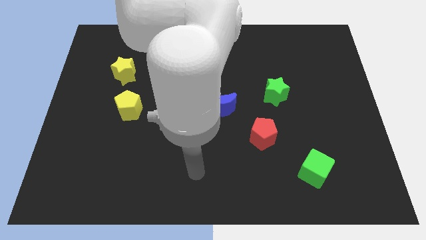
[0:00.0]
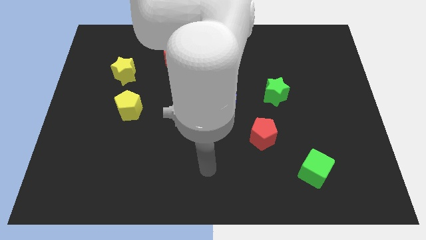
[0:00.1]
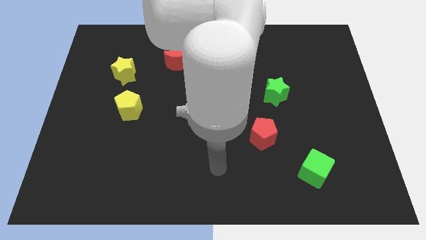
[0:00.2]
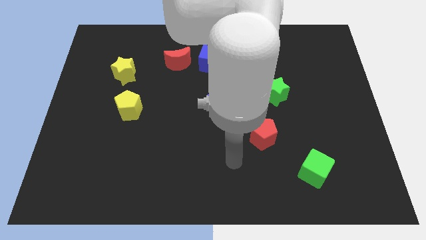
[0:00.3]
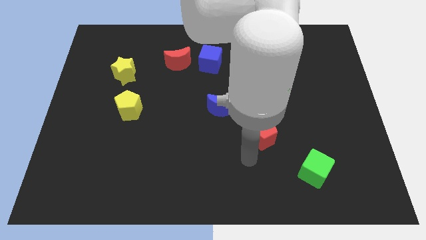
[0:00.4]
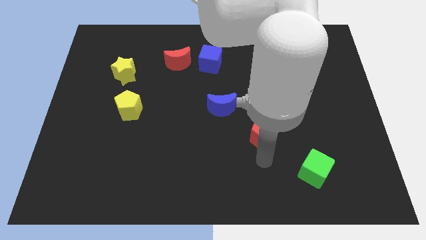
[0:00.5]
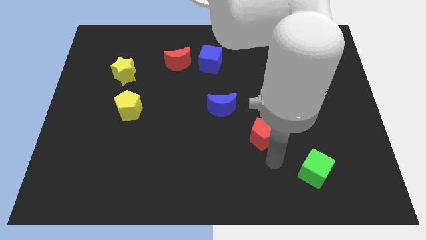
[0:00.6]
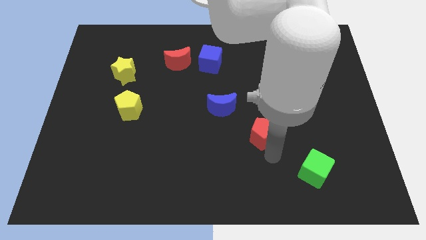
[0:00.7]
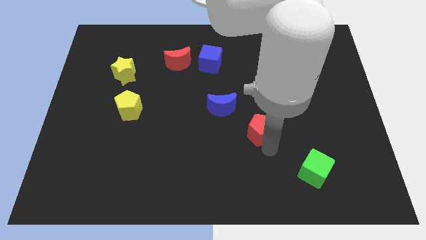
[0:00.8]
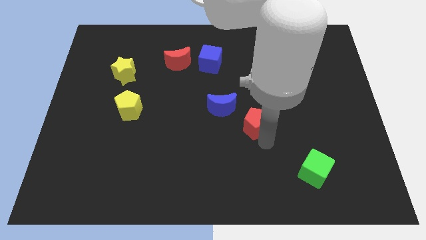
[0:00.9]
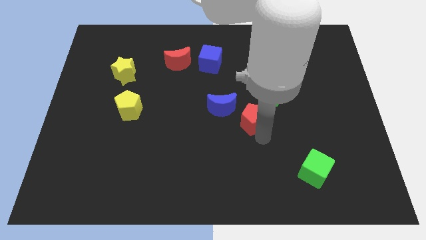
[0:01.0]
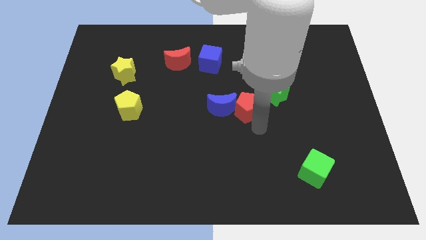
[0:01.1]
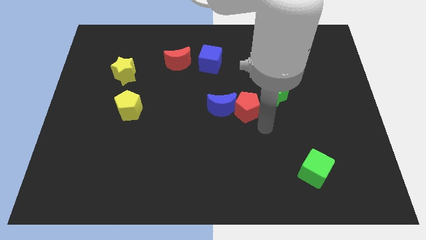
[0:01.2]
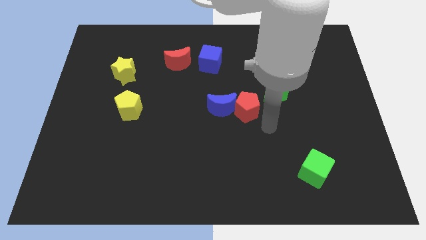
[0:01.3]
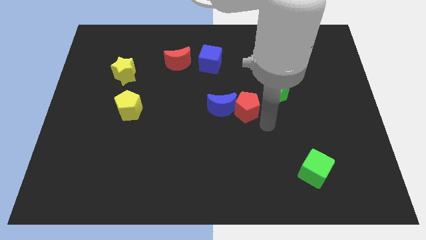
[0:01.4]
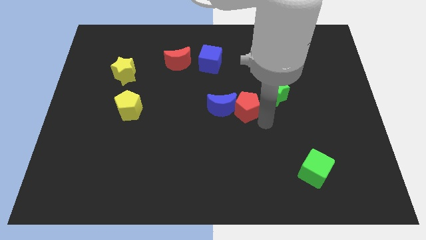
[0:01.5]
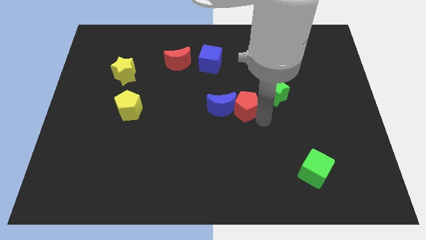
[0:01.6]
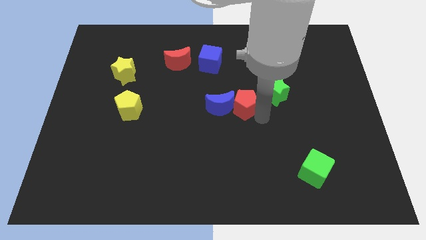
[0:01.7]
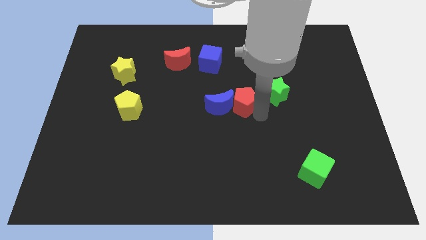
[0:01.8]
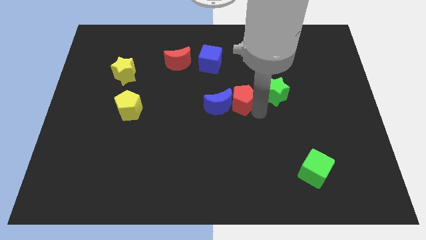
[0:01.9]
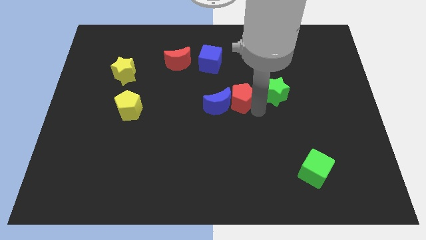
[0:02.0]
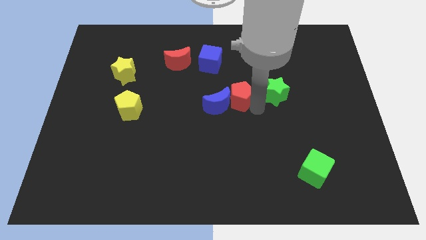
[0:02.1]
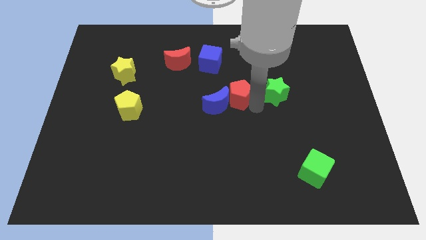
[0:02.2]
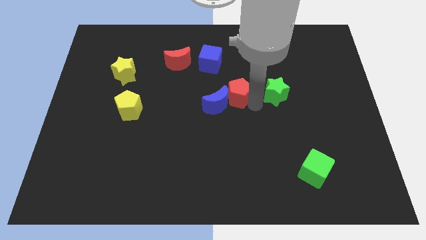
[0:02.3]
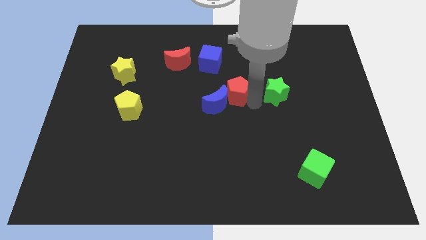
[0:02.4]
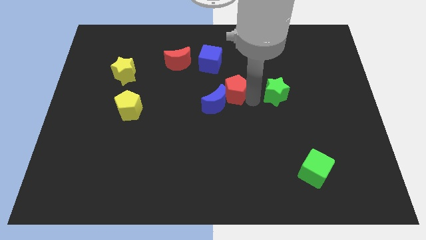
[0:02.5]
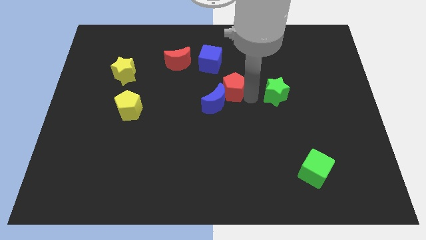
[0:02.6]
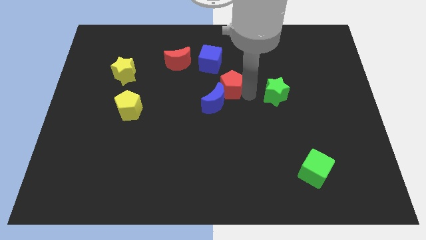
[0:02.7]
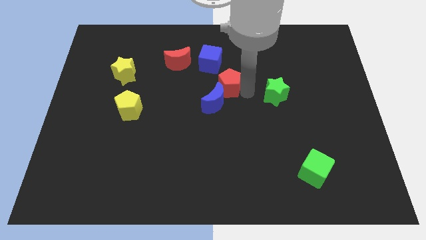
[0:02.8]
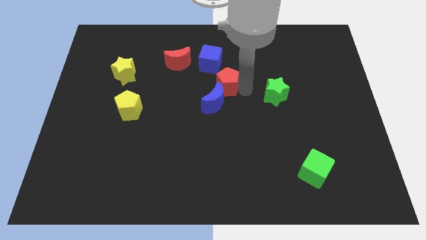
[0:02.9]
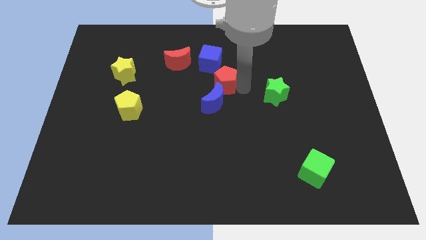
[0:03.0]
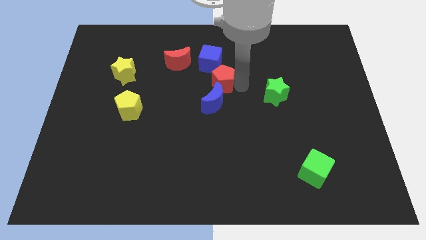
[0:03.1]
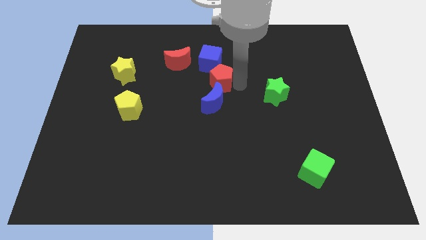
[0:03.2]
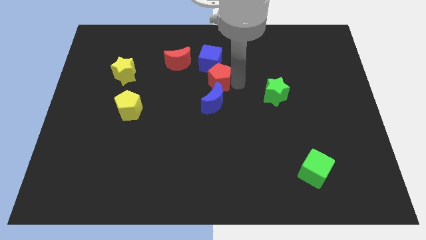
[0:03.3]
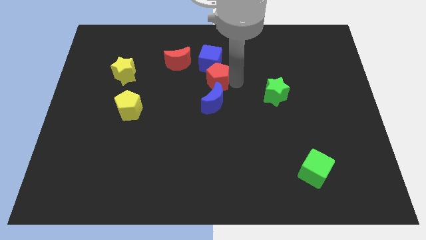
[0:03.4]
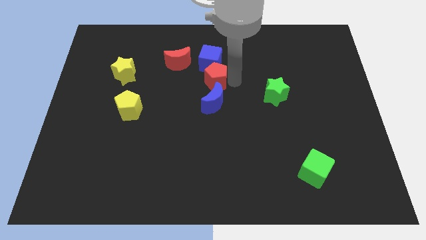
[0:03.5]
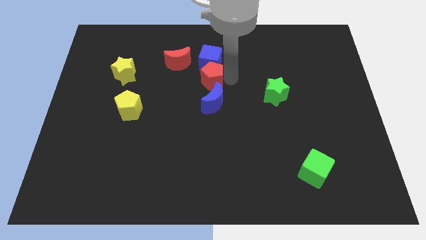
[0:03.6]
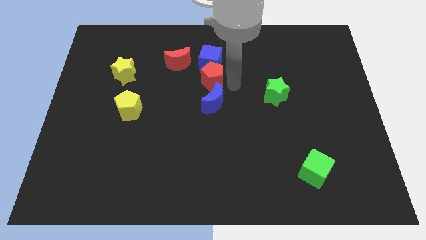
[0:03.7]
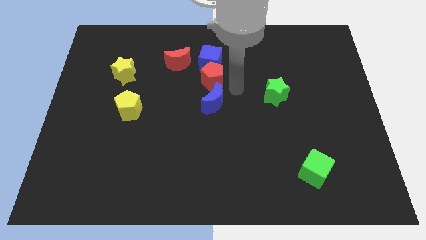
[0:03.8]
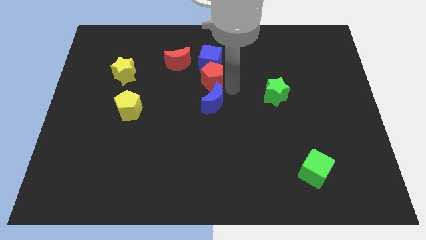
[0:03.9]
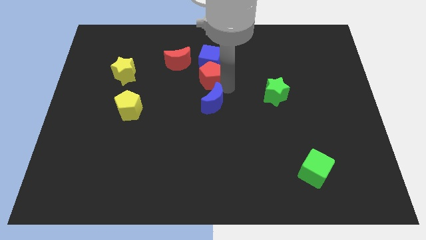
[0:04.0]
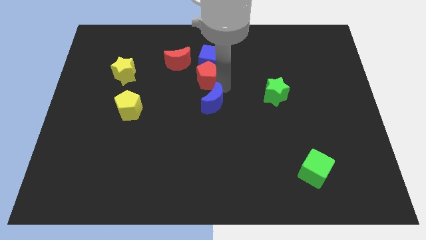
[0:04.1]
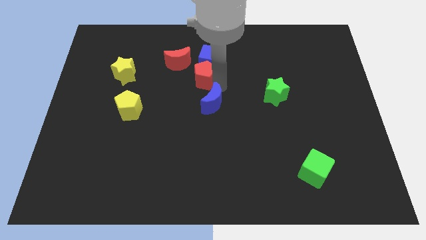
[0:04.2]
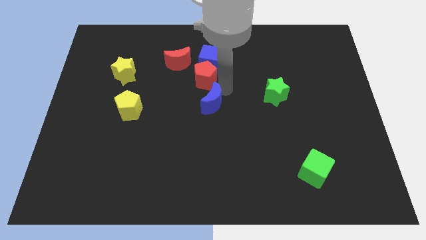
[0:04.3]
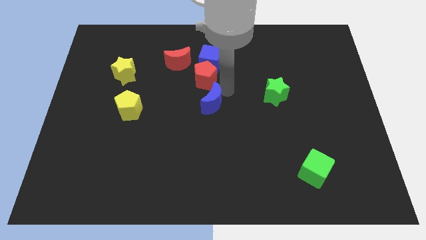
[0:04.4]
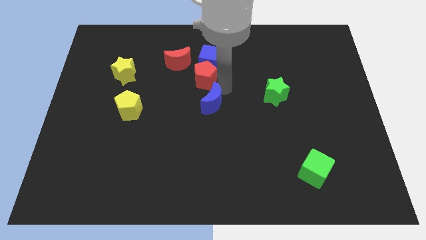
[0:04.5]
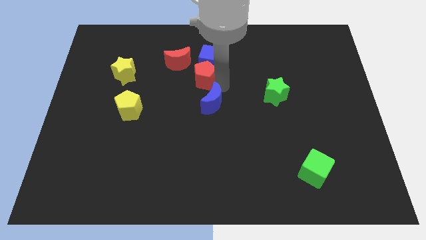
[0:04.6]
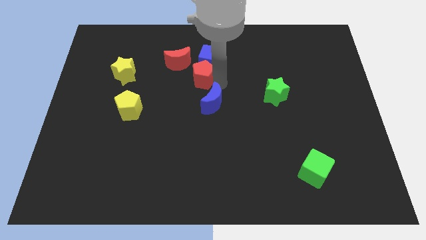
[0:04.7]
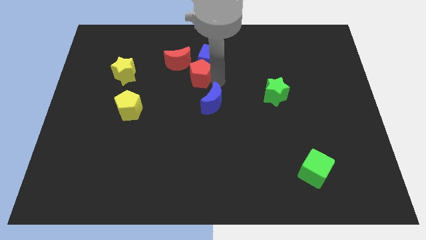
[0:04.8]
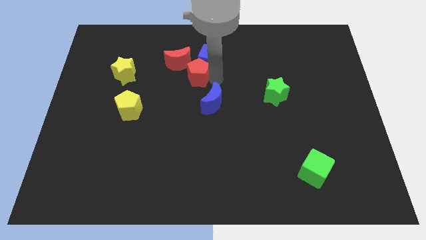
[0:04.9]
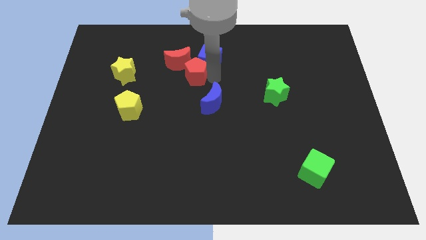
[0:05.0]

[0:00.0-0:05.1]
move the red pentagon towards the red moon

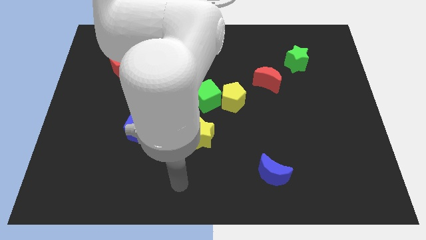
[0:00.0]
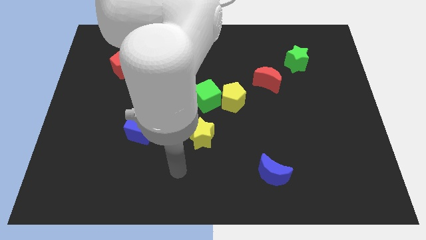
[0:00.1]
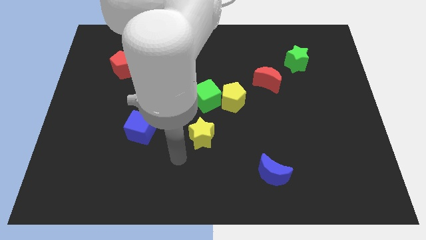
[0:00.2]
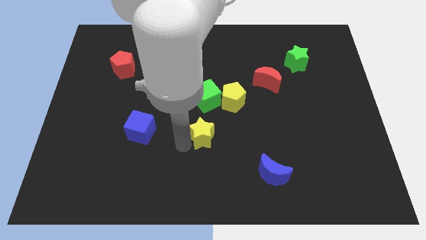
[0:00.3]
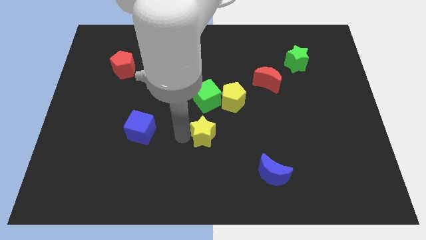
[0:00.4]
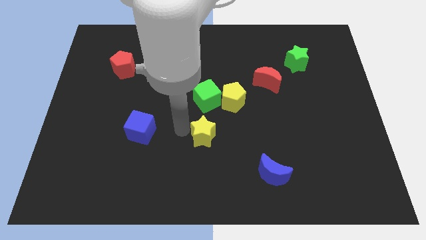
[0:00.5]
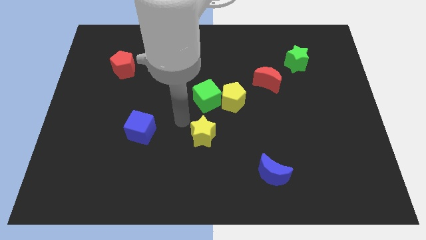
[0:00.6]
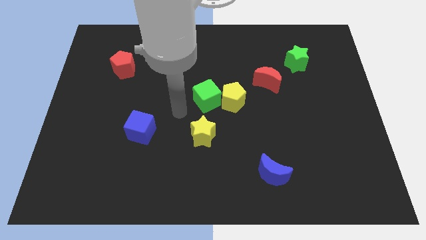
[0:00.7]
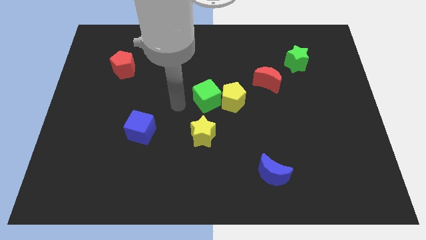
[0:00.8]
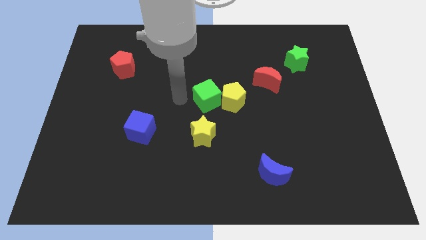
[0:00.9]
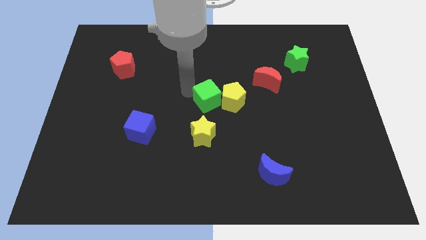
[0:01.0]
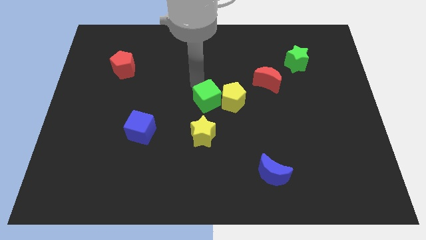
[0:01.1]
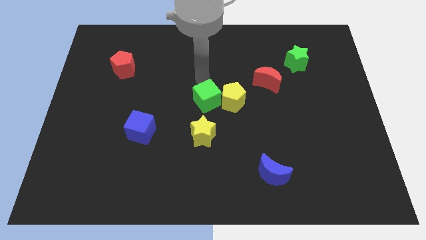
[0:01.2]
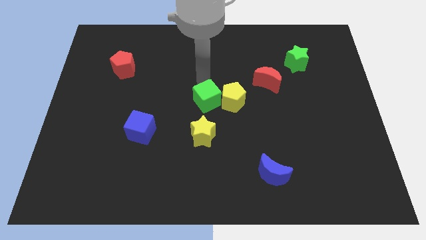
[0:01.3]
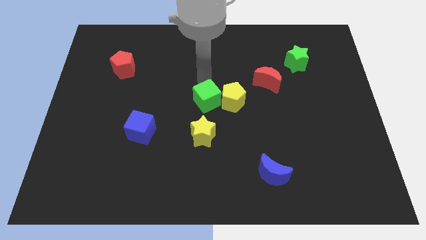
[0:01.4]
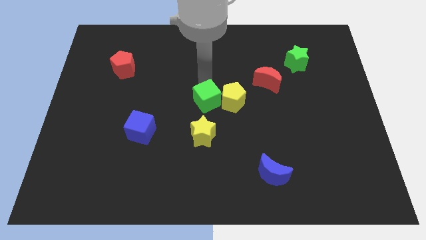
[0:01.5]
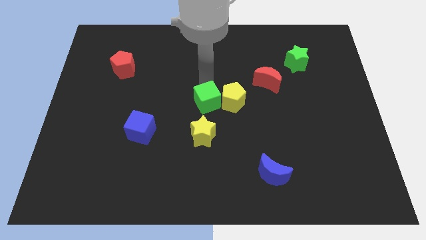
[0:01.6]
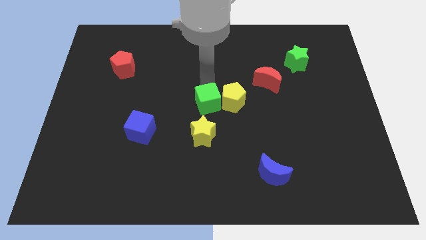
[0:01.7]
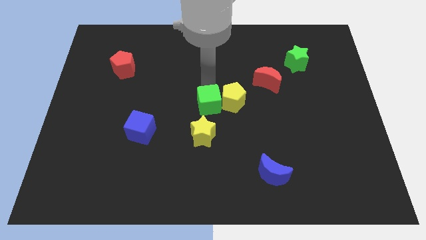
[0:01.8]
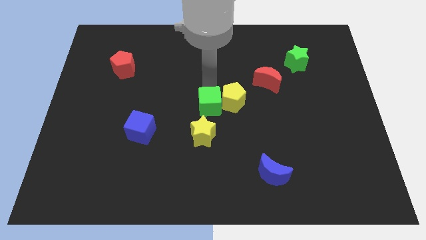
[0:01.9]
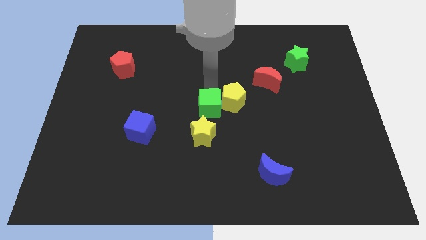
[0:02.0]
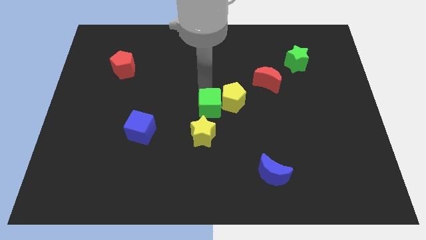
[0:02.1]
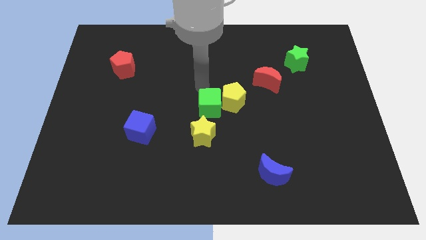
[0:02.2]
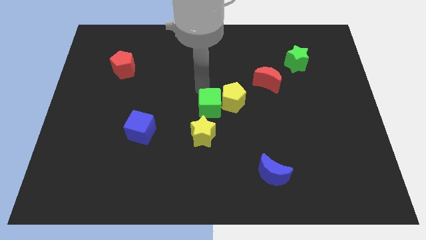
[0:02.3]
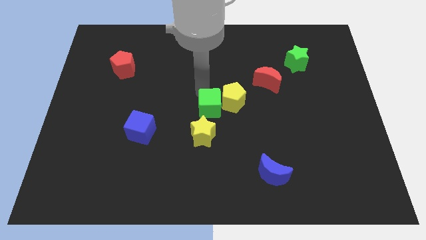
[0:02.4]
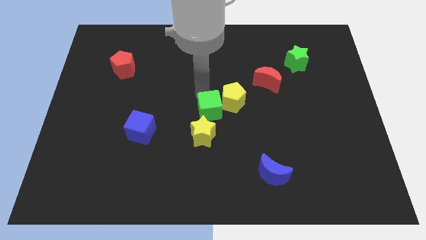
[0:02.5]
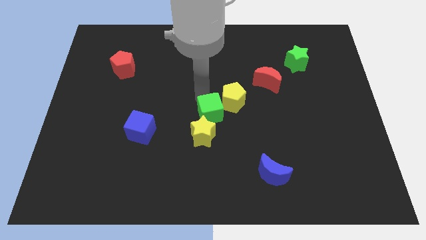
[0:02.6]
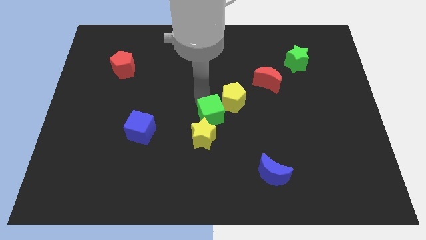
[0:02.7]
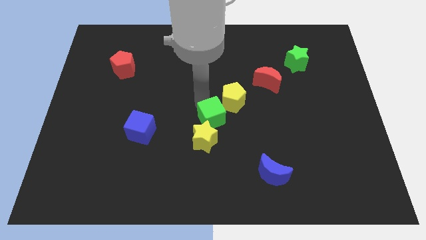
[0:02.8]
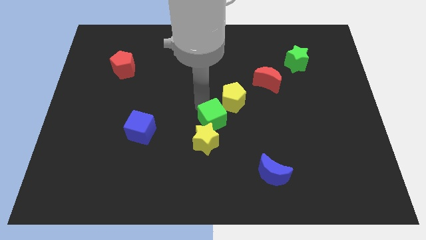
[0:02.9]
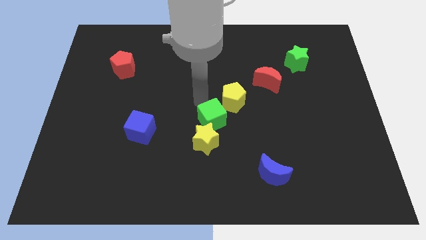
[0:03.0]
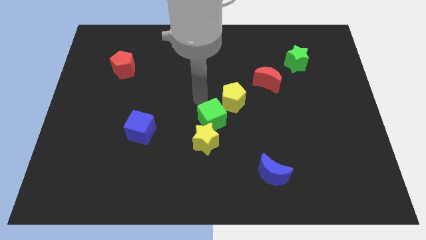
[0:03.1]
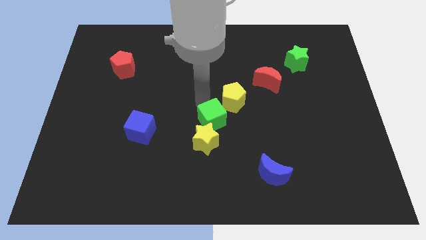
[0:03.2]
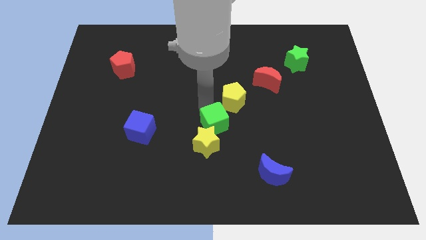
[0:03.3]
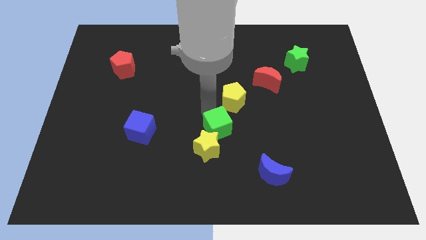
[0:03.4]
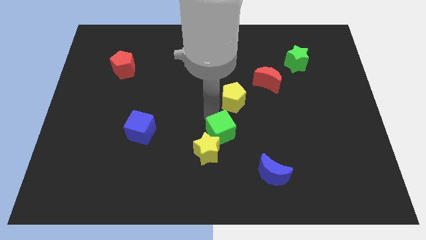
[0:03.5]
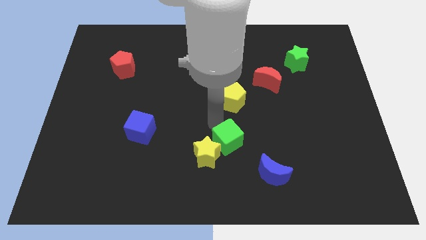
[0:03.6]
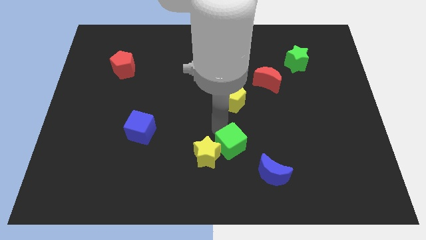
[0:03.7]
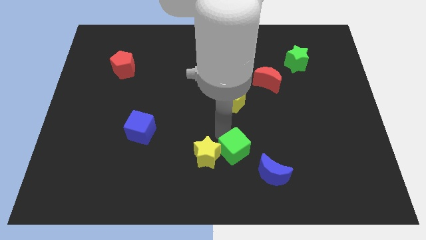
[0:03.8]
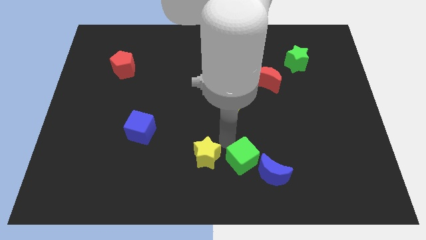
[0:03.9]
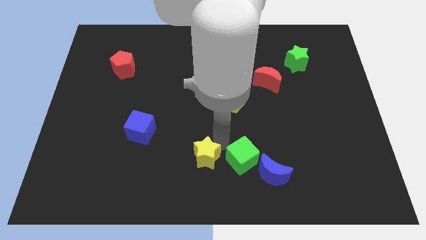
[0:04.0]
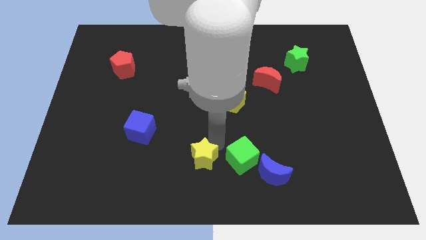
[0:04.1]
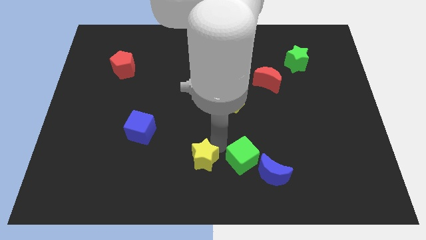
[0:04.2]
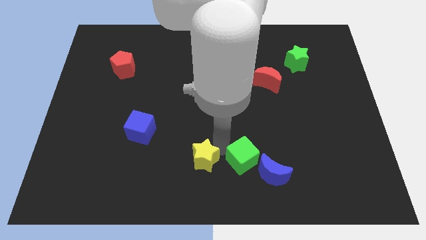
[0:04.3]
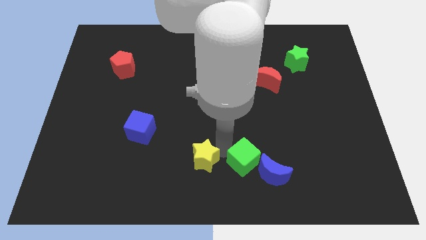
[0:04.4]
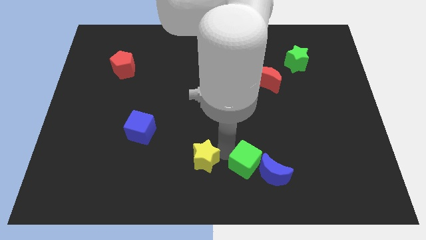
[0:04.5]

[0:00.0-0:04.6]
slide the green cube close to the blue moon
